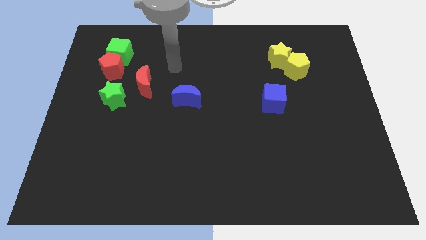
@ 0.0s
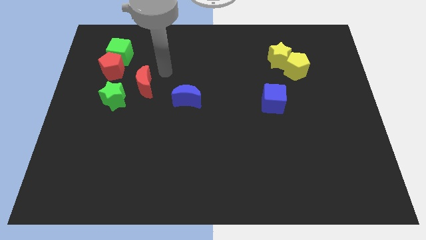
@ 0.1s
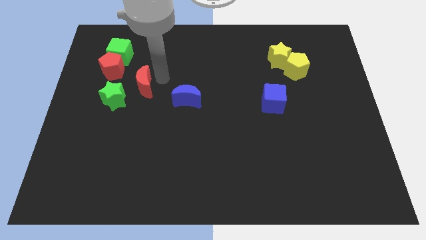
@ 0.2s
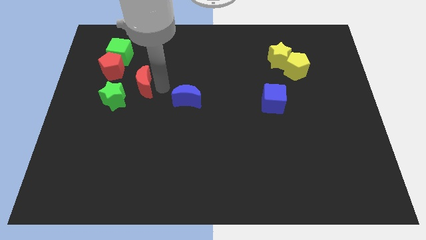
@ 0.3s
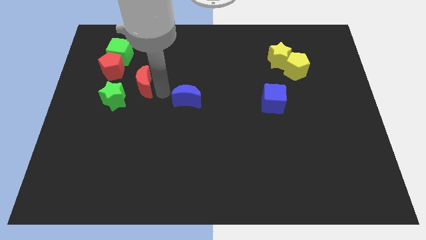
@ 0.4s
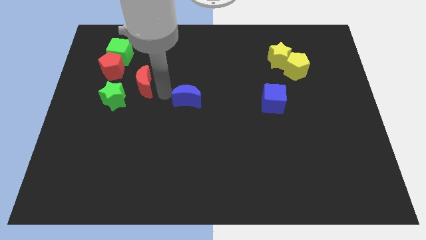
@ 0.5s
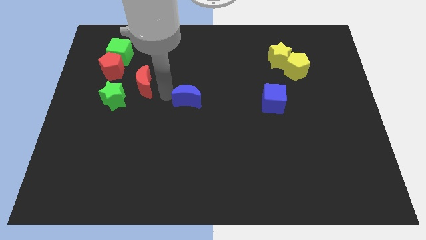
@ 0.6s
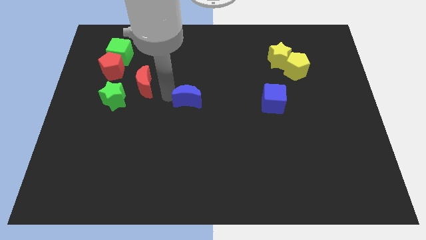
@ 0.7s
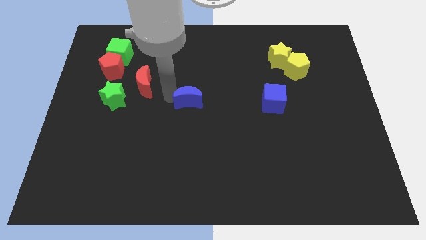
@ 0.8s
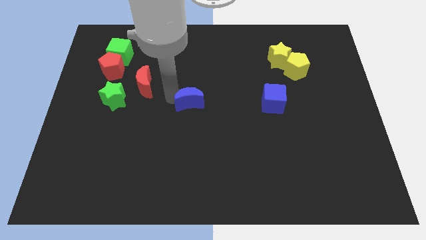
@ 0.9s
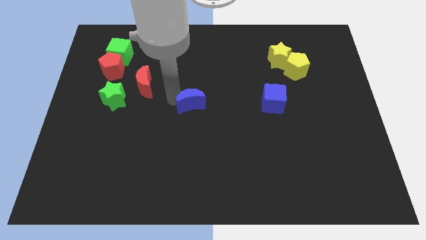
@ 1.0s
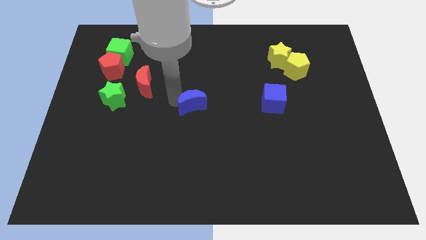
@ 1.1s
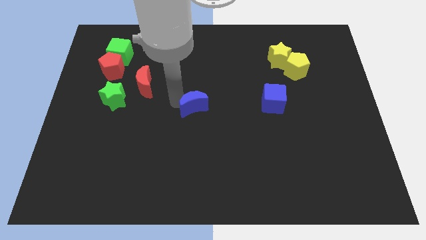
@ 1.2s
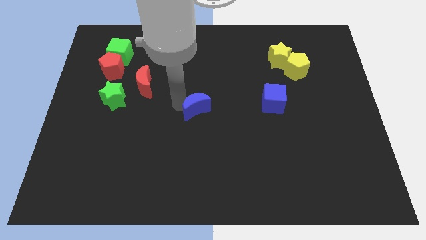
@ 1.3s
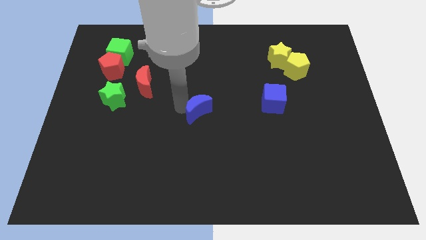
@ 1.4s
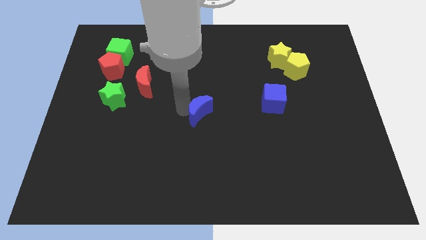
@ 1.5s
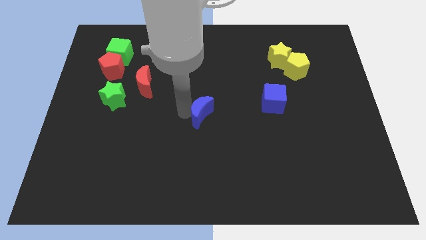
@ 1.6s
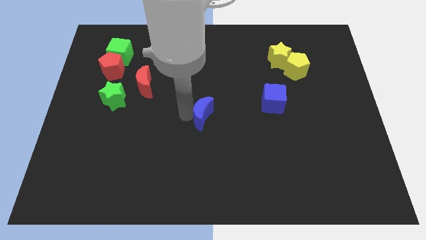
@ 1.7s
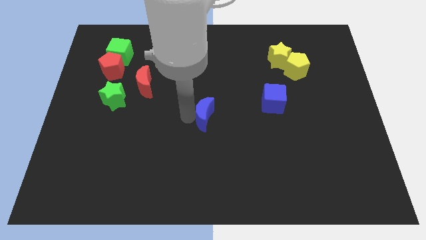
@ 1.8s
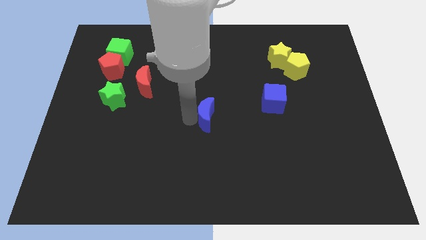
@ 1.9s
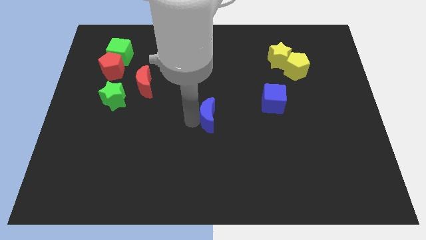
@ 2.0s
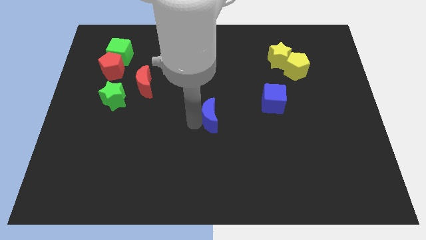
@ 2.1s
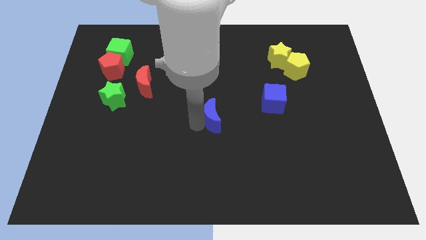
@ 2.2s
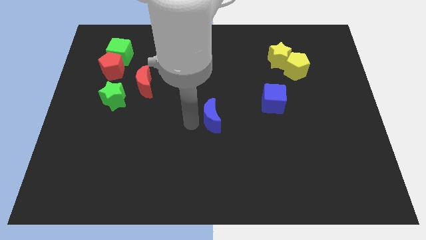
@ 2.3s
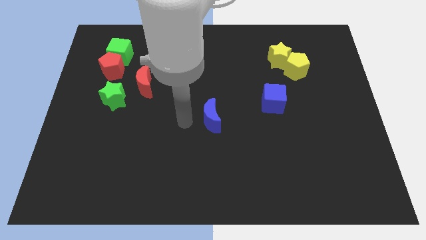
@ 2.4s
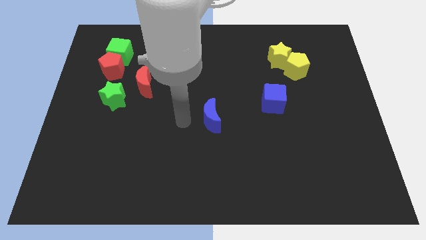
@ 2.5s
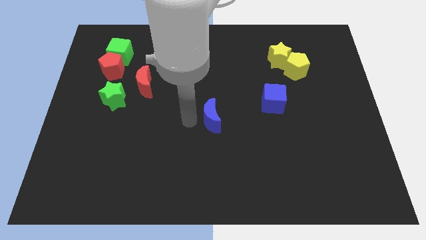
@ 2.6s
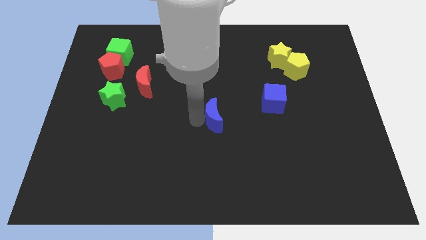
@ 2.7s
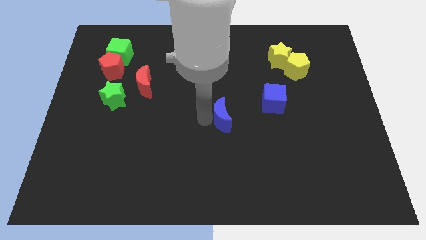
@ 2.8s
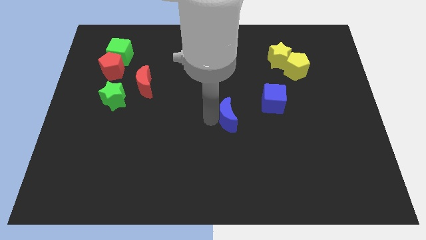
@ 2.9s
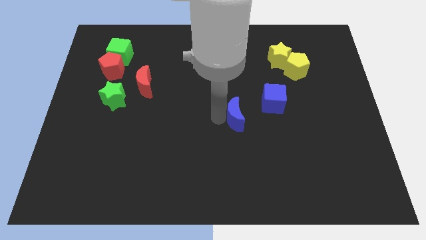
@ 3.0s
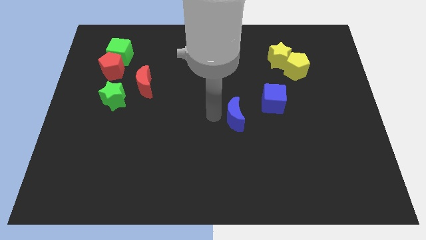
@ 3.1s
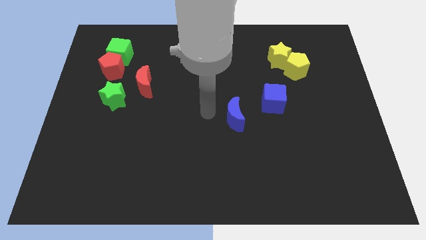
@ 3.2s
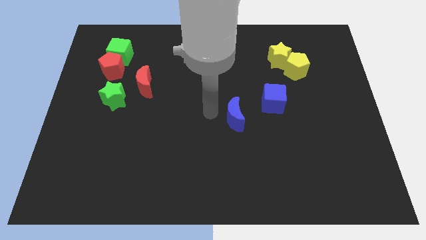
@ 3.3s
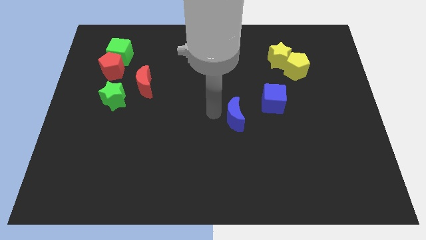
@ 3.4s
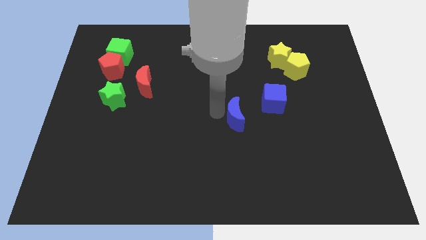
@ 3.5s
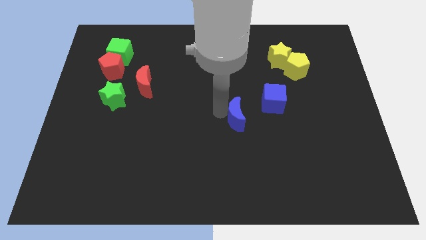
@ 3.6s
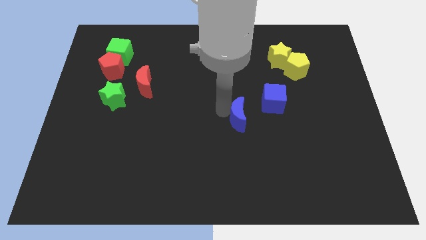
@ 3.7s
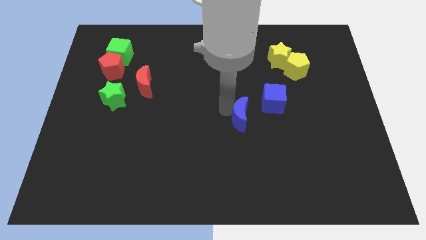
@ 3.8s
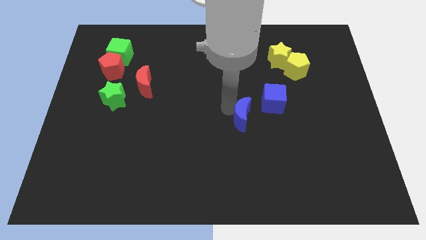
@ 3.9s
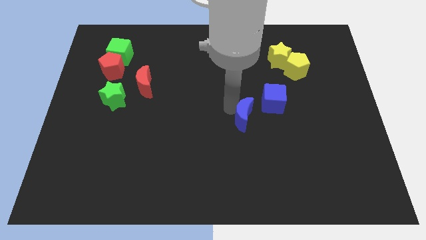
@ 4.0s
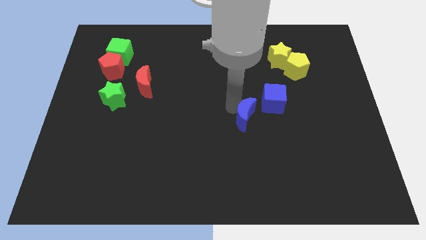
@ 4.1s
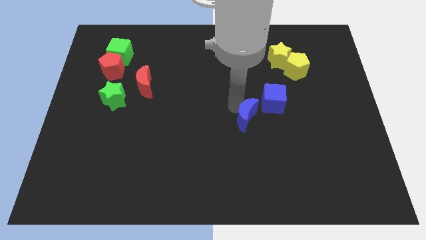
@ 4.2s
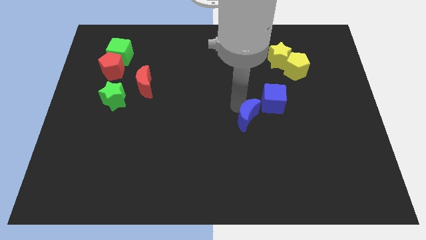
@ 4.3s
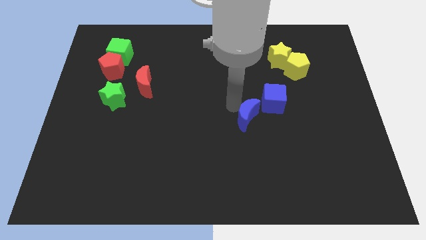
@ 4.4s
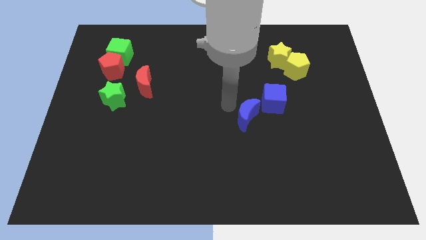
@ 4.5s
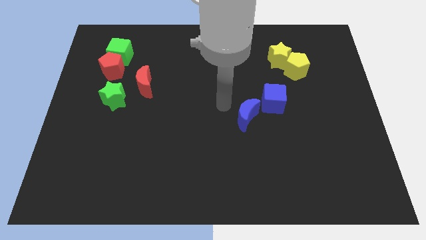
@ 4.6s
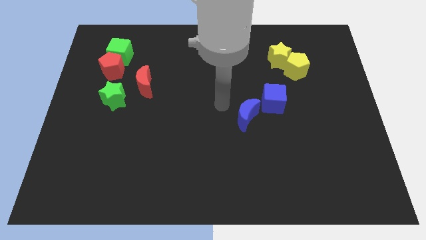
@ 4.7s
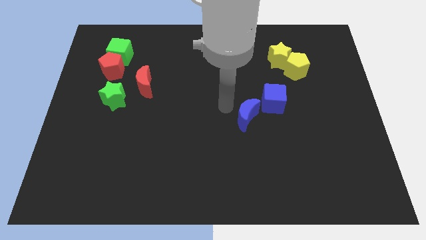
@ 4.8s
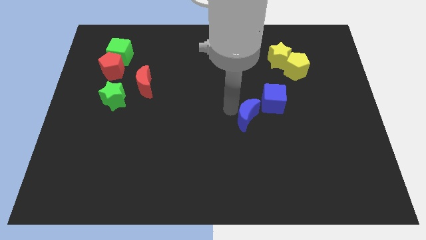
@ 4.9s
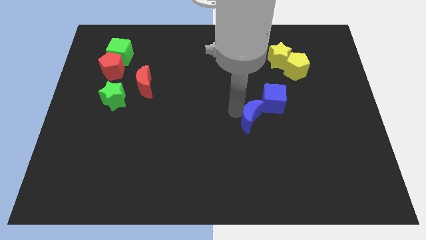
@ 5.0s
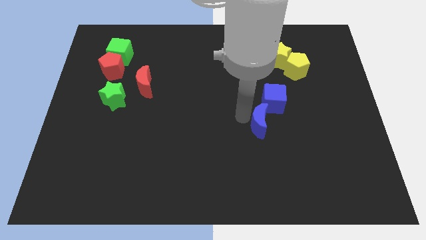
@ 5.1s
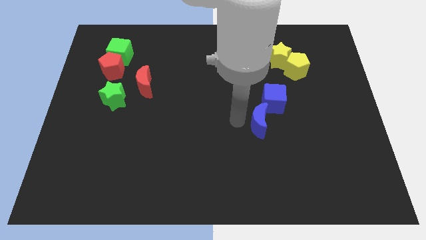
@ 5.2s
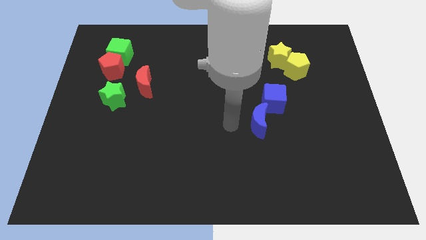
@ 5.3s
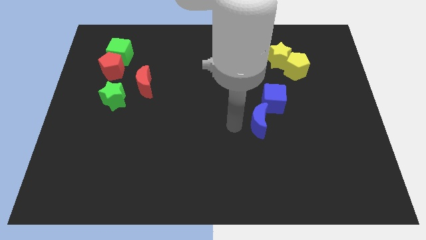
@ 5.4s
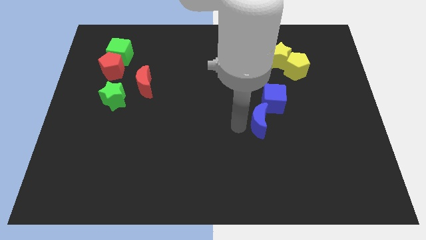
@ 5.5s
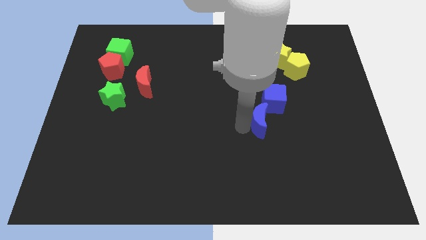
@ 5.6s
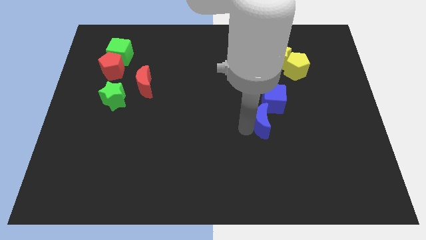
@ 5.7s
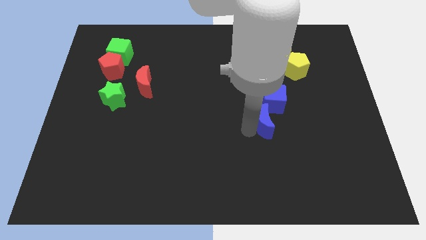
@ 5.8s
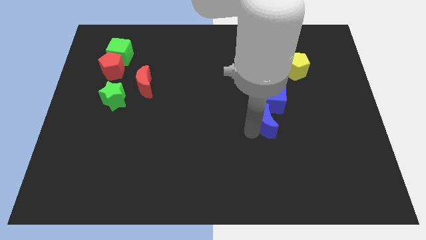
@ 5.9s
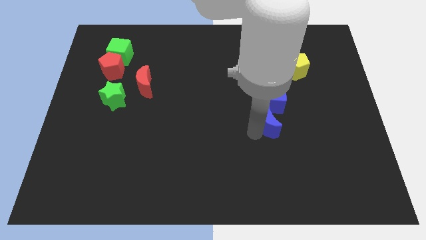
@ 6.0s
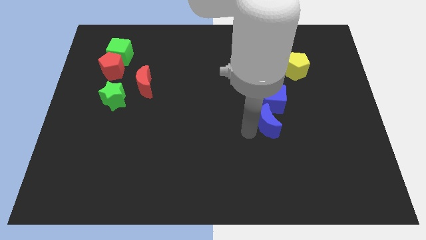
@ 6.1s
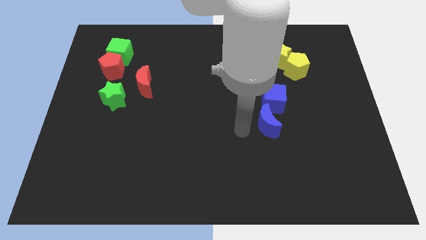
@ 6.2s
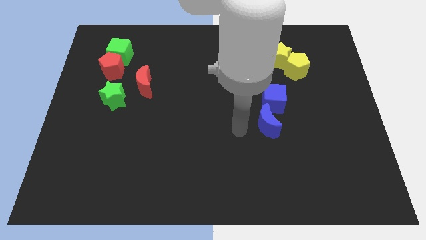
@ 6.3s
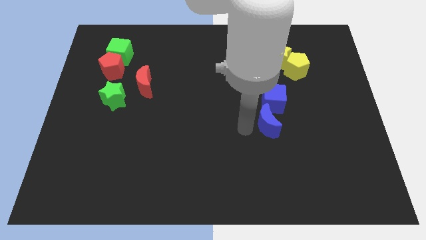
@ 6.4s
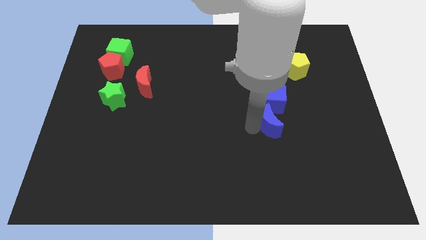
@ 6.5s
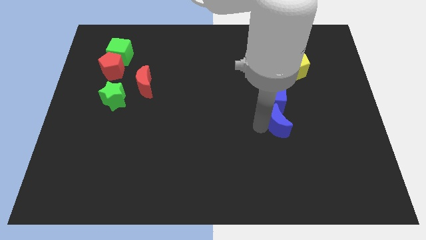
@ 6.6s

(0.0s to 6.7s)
slide the blue moon diagonally down and to the right of the blue cube

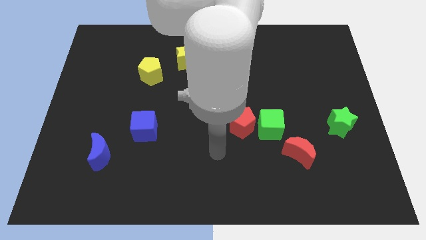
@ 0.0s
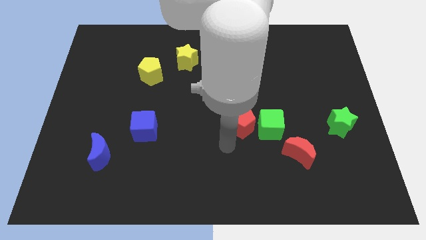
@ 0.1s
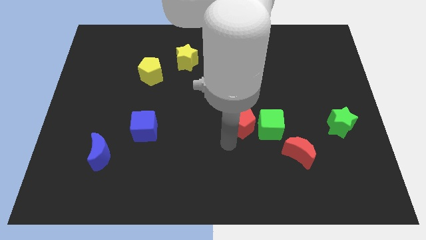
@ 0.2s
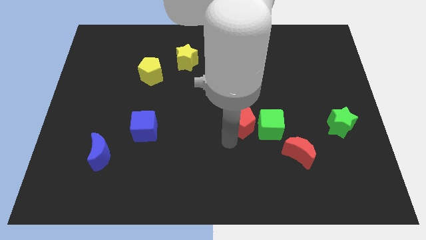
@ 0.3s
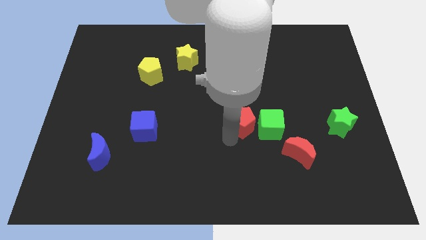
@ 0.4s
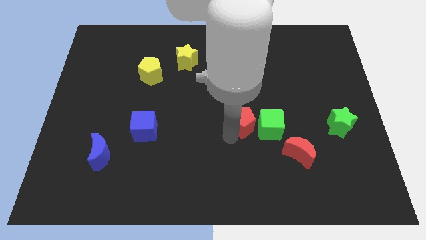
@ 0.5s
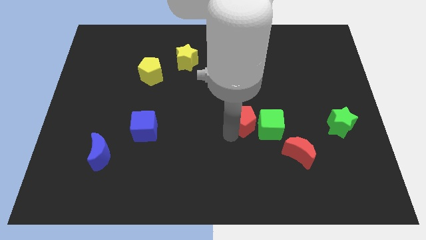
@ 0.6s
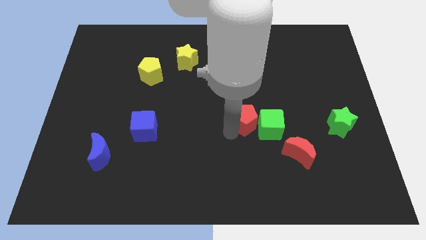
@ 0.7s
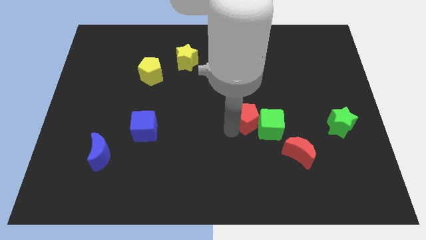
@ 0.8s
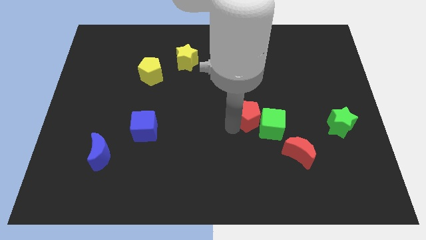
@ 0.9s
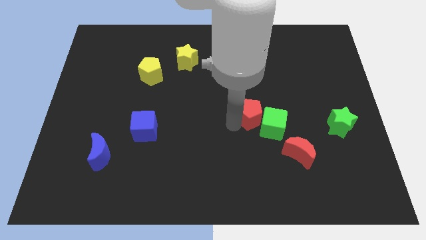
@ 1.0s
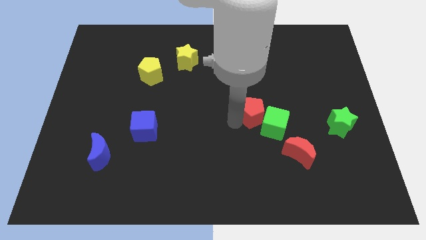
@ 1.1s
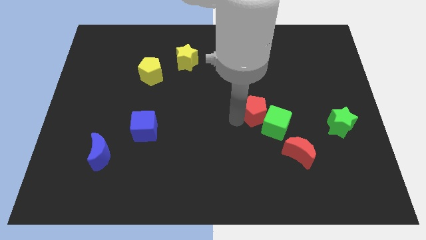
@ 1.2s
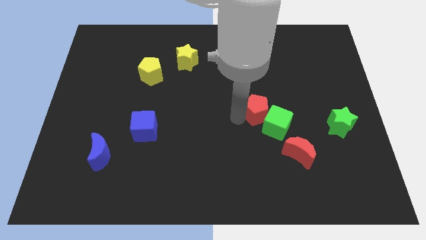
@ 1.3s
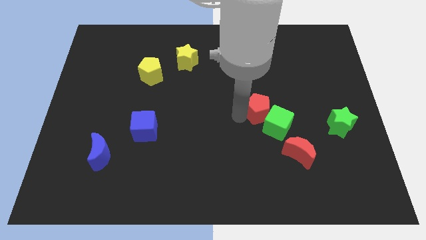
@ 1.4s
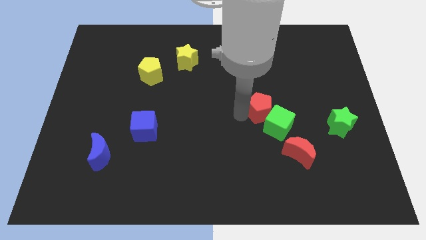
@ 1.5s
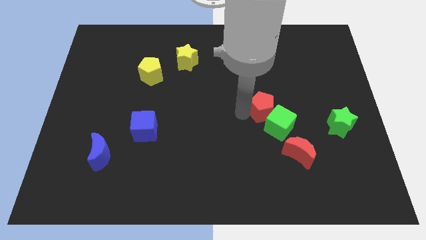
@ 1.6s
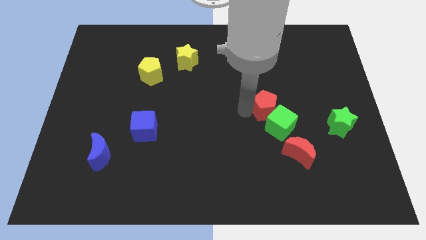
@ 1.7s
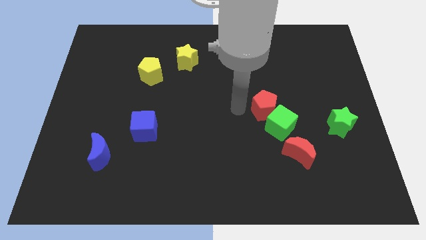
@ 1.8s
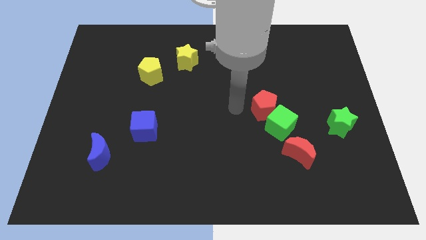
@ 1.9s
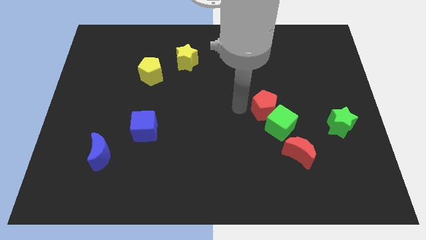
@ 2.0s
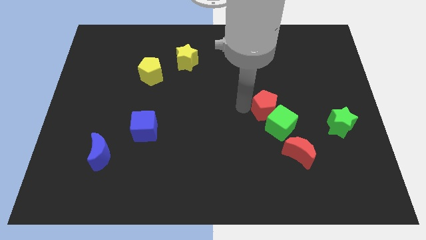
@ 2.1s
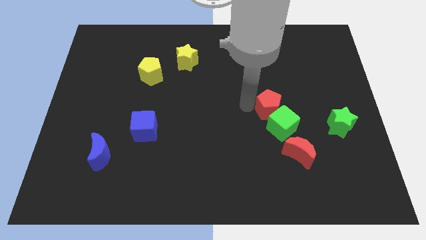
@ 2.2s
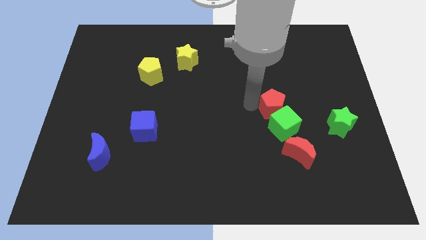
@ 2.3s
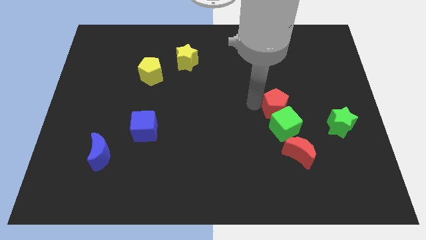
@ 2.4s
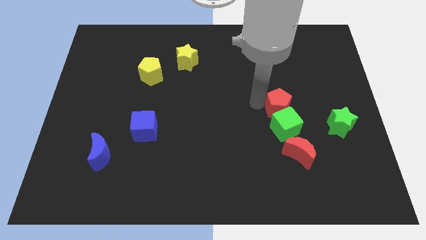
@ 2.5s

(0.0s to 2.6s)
put the red pentagon diagonally up and to the right of the green cube
